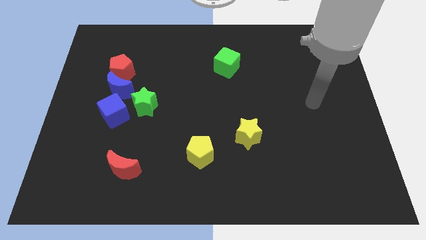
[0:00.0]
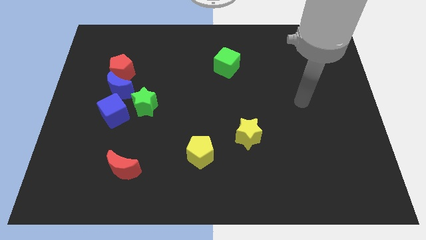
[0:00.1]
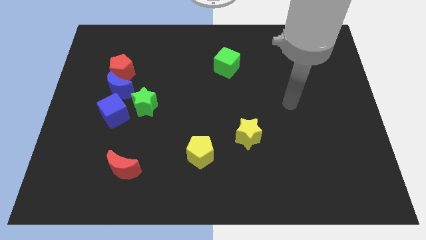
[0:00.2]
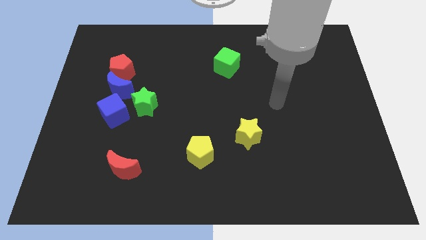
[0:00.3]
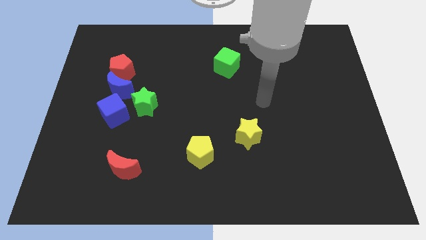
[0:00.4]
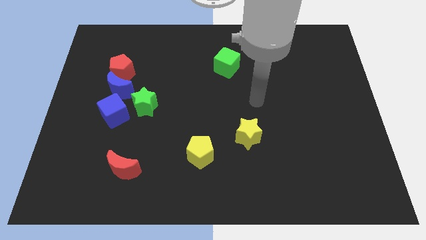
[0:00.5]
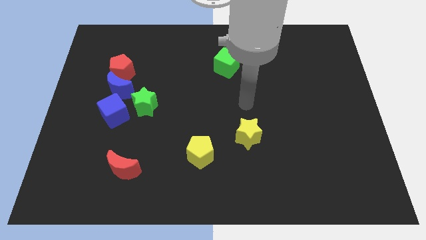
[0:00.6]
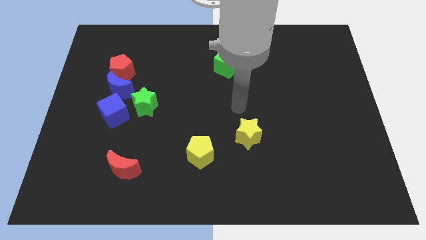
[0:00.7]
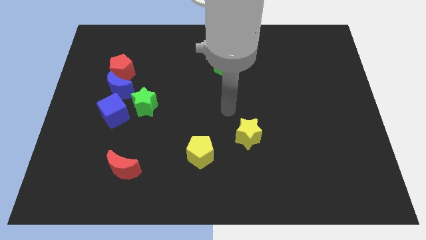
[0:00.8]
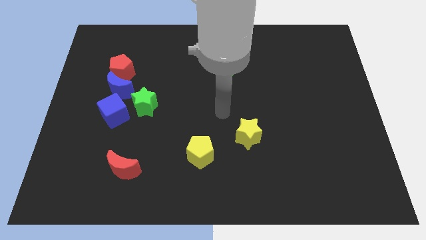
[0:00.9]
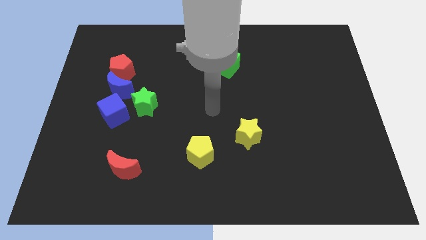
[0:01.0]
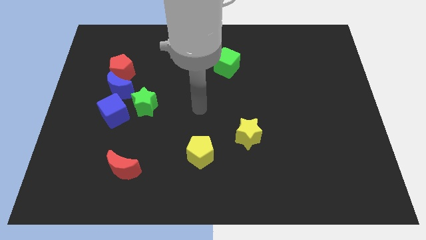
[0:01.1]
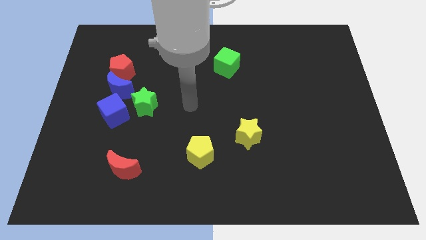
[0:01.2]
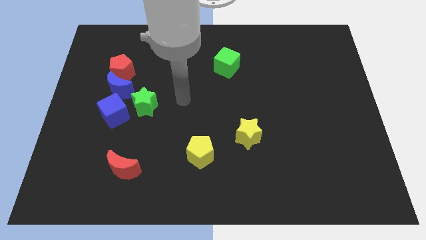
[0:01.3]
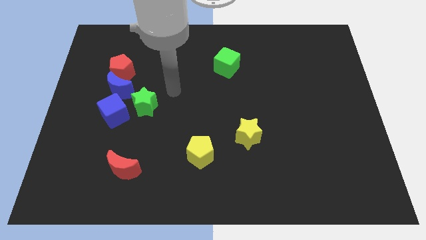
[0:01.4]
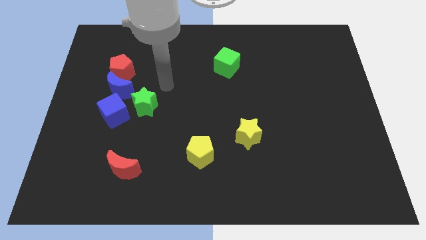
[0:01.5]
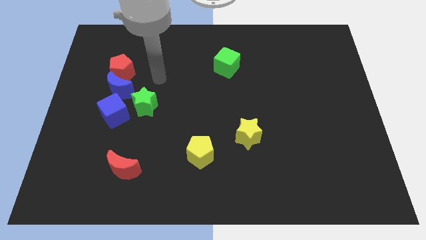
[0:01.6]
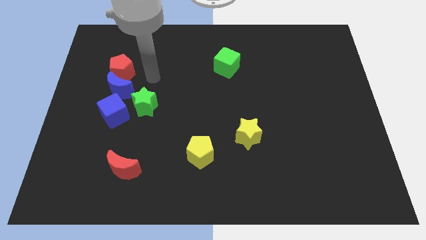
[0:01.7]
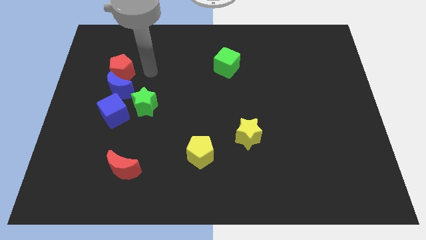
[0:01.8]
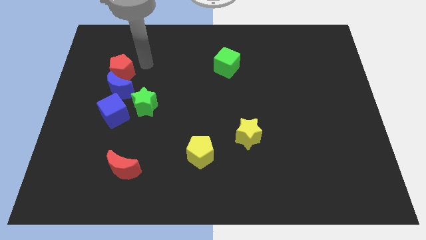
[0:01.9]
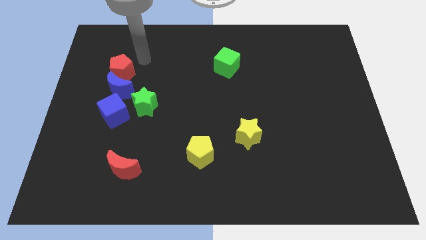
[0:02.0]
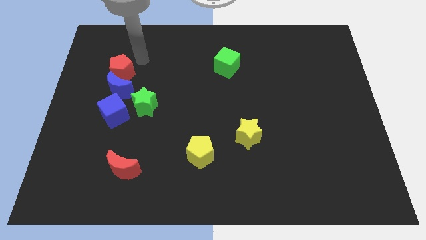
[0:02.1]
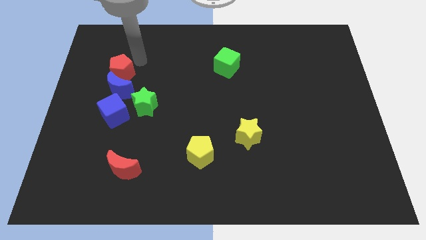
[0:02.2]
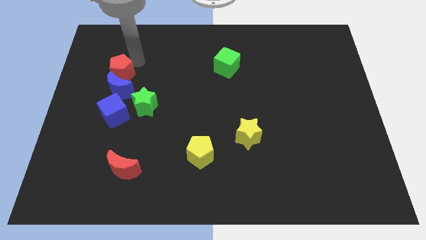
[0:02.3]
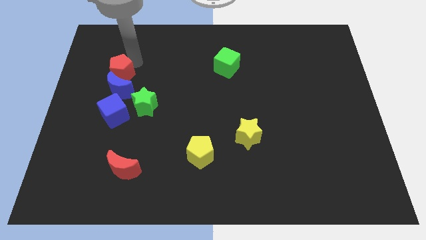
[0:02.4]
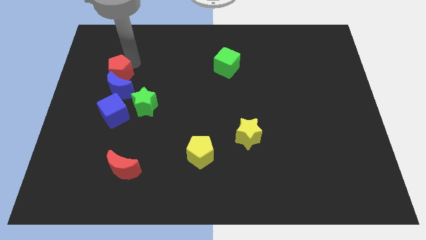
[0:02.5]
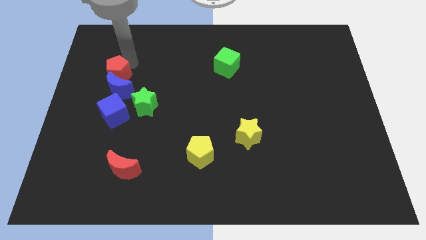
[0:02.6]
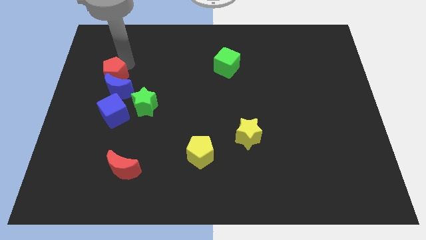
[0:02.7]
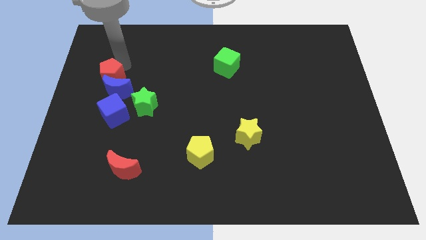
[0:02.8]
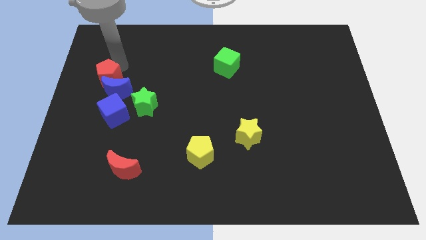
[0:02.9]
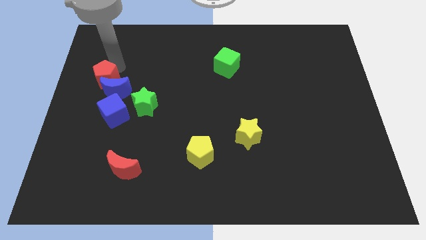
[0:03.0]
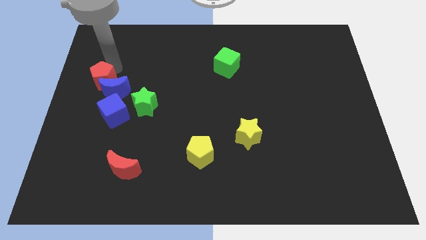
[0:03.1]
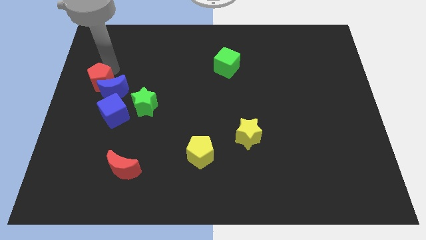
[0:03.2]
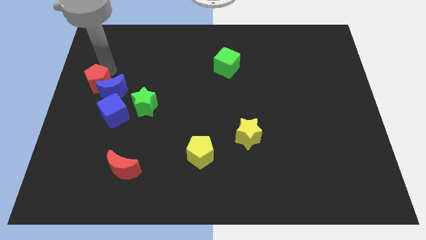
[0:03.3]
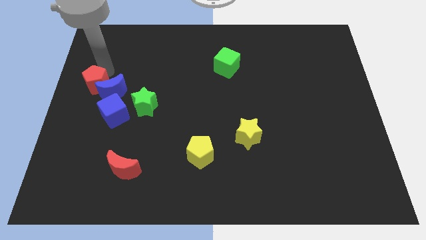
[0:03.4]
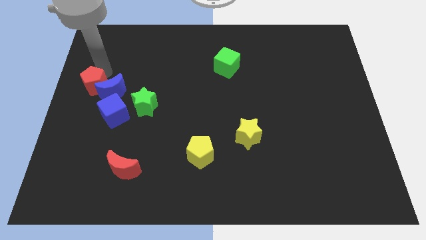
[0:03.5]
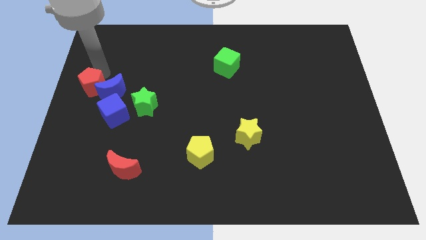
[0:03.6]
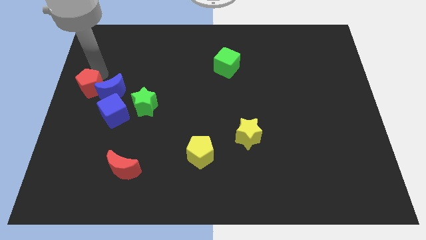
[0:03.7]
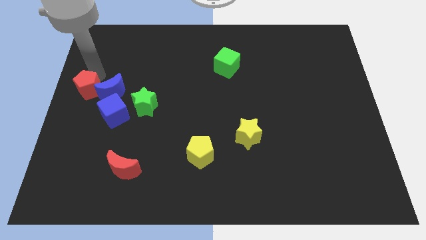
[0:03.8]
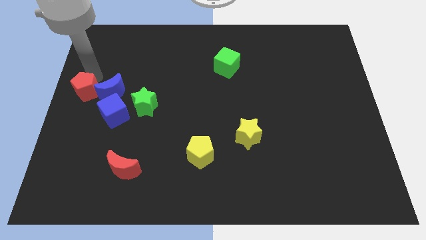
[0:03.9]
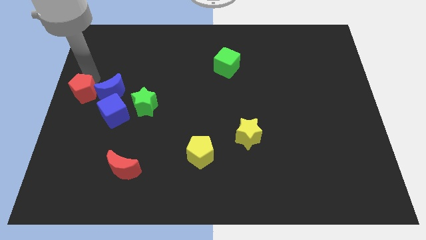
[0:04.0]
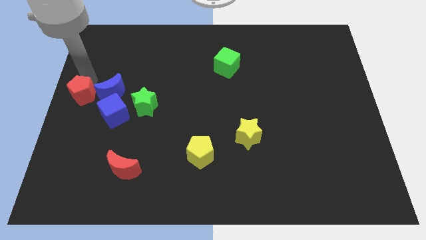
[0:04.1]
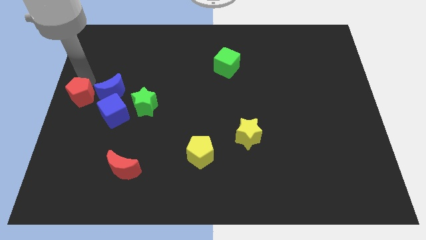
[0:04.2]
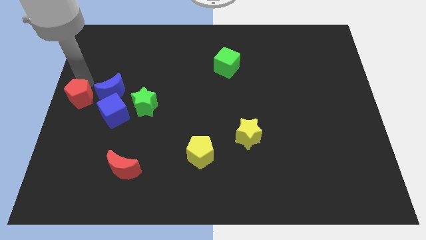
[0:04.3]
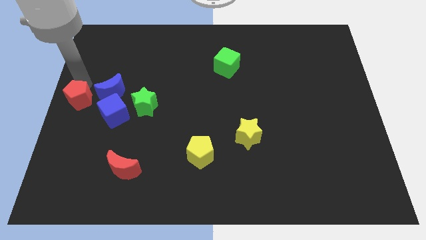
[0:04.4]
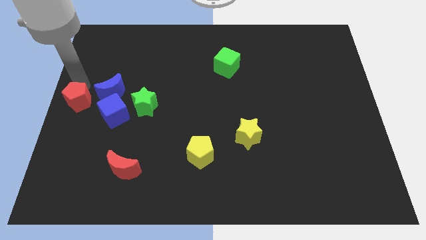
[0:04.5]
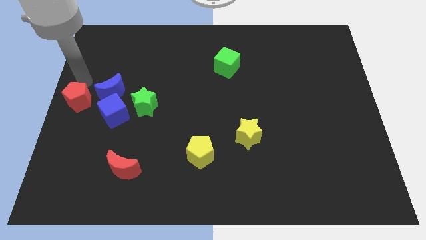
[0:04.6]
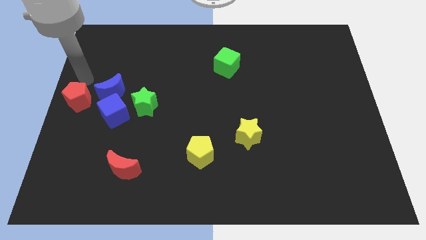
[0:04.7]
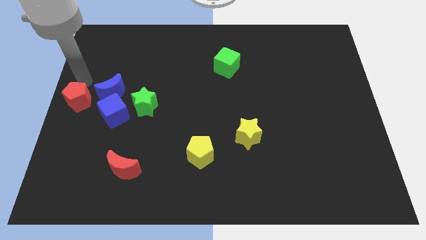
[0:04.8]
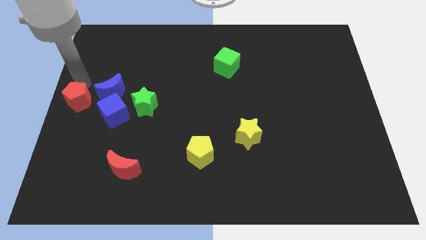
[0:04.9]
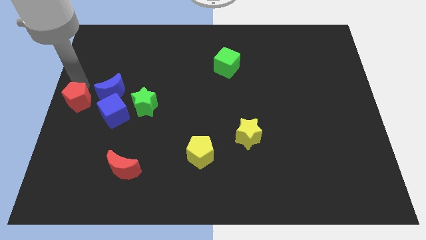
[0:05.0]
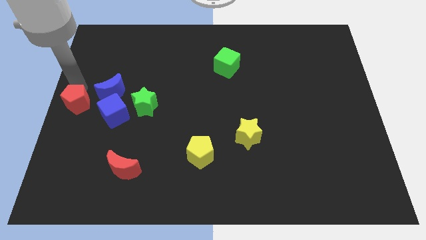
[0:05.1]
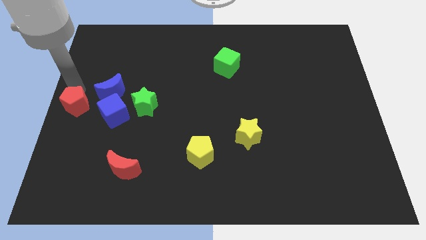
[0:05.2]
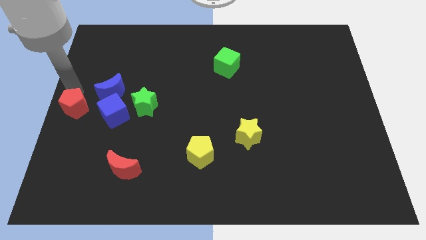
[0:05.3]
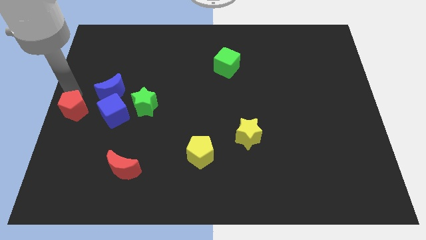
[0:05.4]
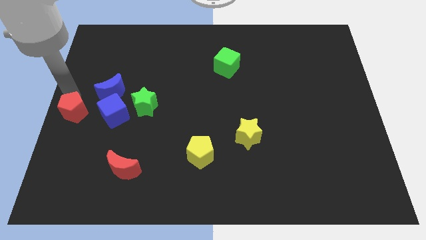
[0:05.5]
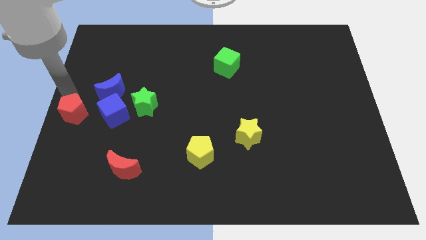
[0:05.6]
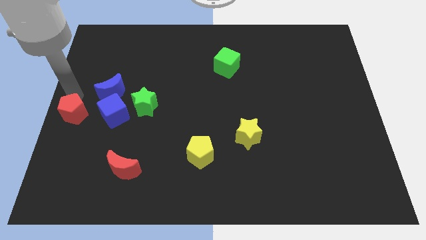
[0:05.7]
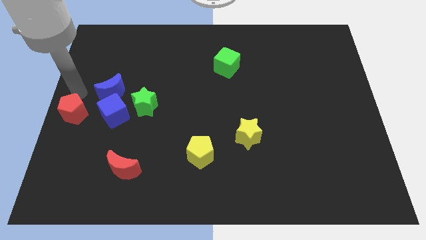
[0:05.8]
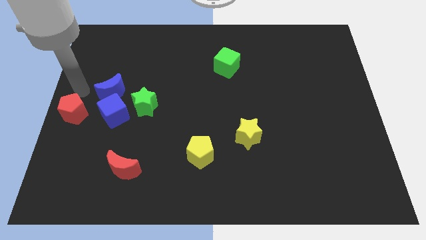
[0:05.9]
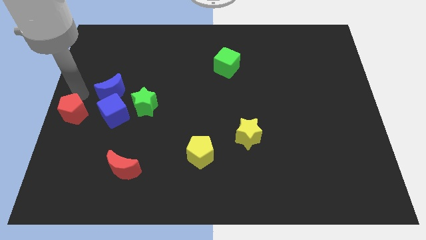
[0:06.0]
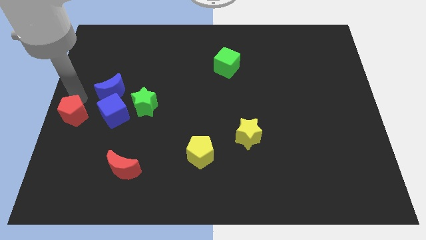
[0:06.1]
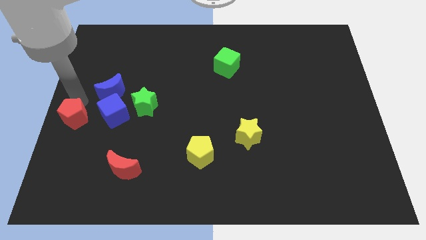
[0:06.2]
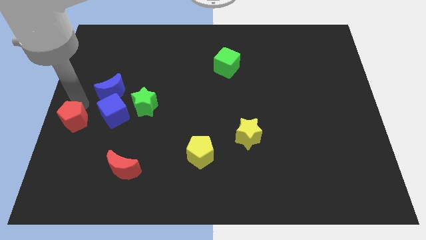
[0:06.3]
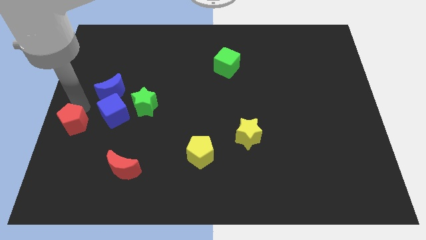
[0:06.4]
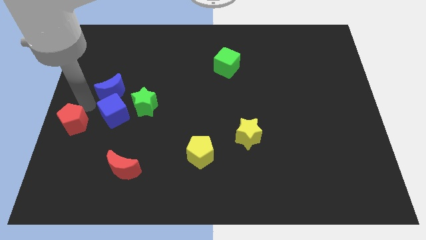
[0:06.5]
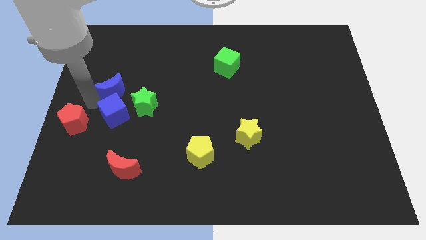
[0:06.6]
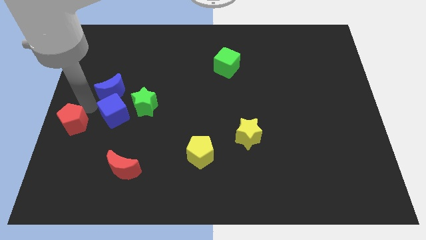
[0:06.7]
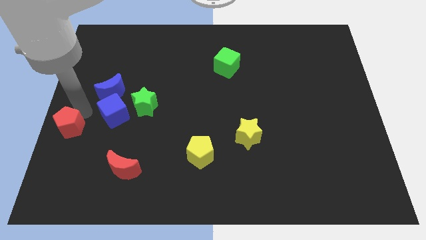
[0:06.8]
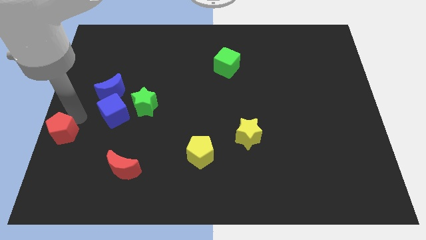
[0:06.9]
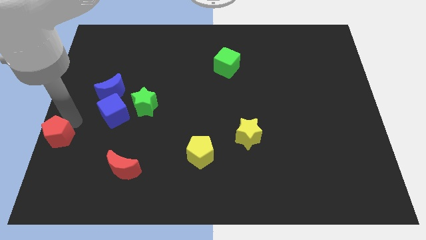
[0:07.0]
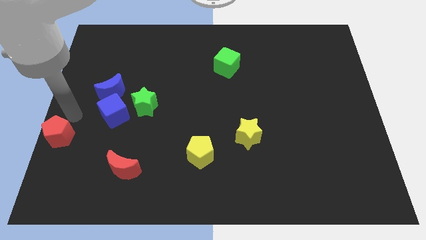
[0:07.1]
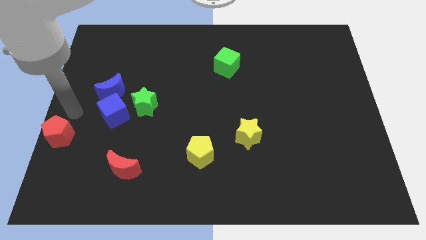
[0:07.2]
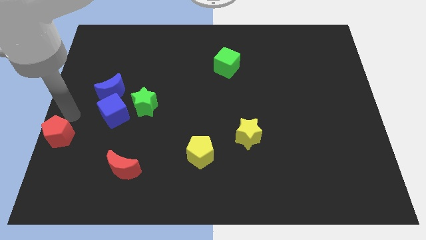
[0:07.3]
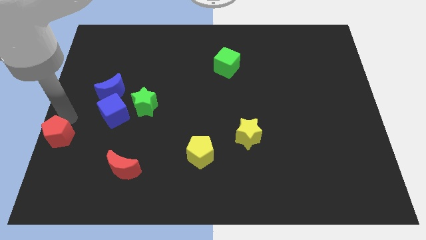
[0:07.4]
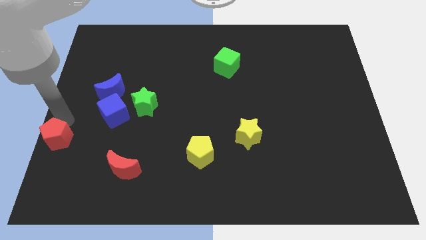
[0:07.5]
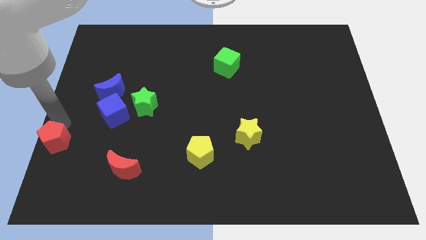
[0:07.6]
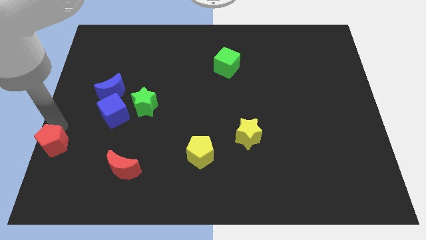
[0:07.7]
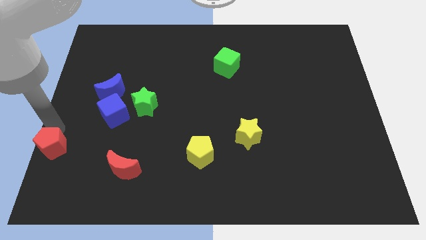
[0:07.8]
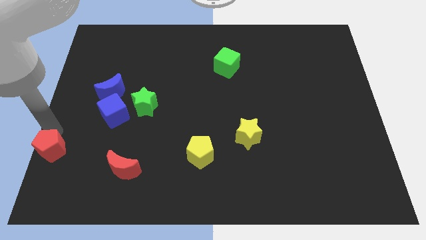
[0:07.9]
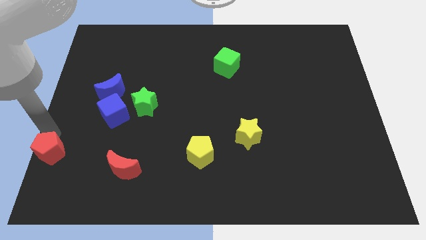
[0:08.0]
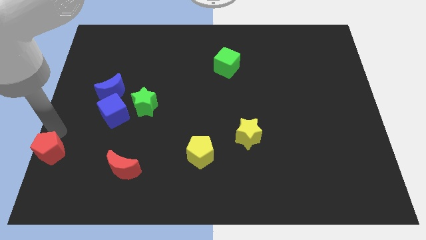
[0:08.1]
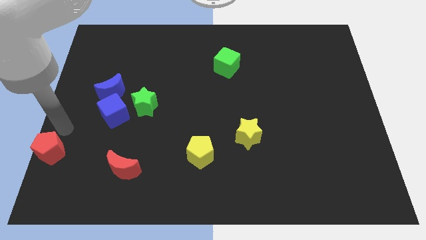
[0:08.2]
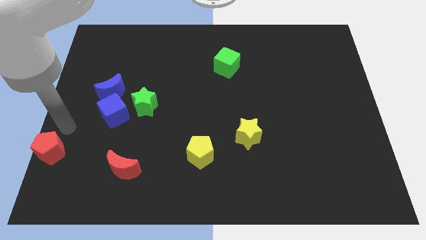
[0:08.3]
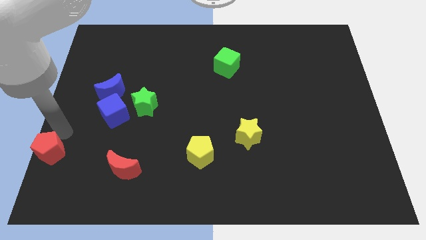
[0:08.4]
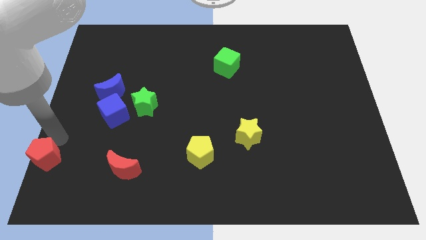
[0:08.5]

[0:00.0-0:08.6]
push the red pentagon to the lower left corner
